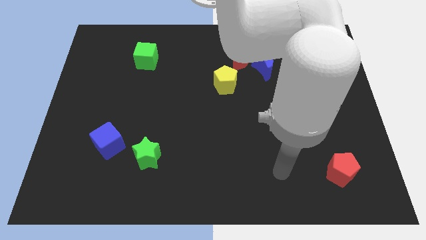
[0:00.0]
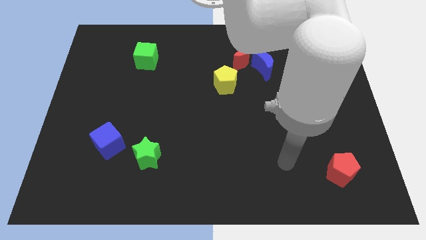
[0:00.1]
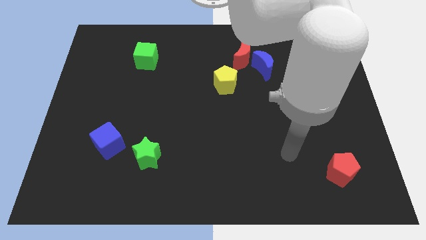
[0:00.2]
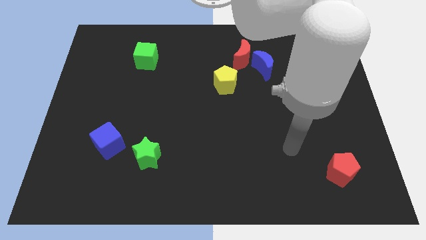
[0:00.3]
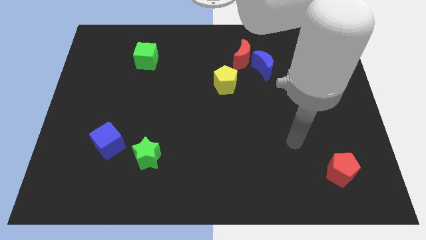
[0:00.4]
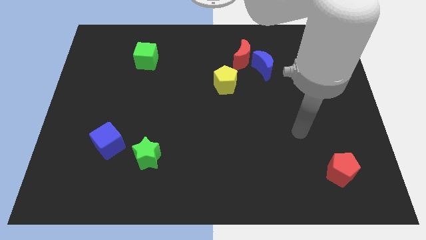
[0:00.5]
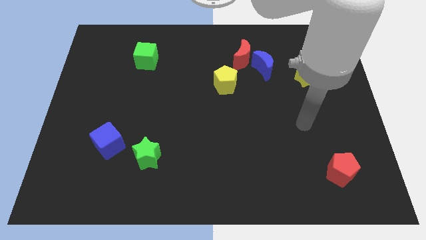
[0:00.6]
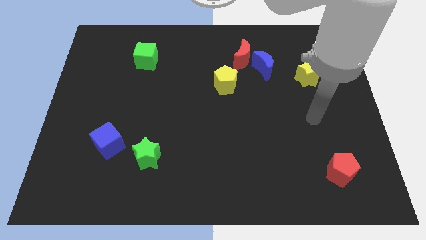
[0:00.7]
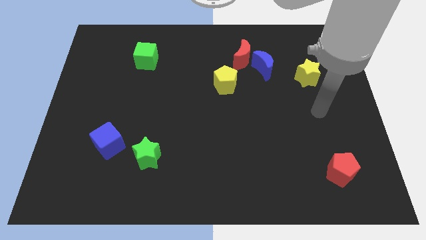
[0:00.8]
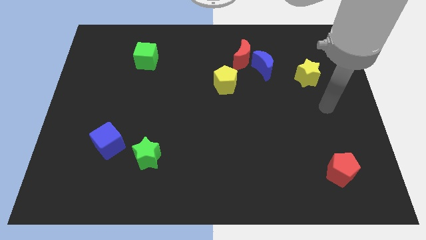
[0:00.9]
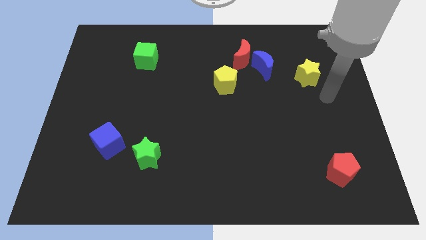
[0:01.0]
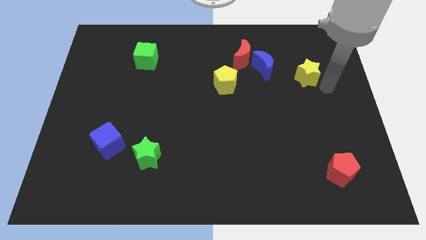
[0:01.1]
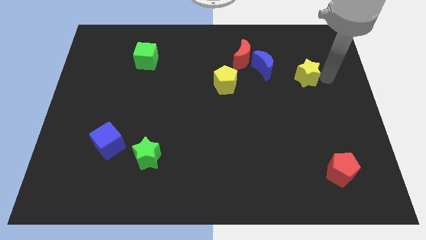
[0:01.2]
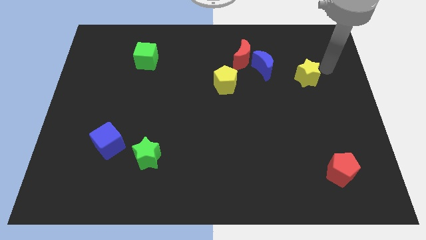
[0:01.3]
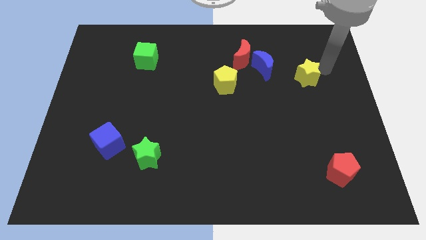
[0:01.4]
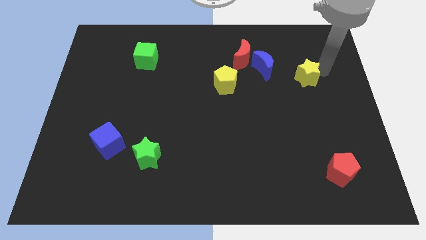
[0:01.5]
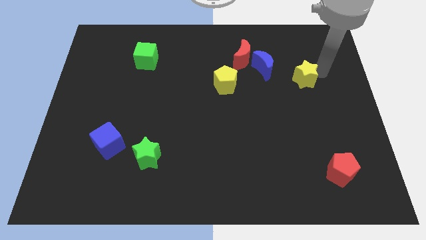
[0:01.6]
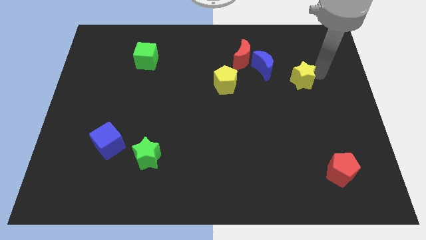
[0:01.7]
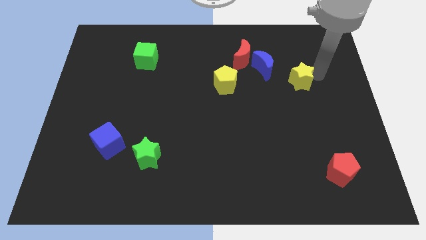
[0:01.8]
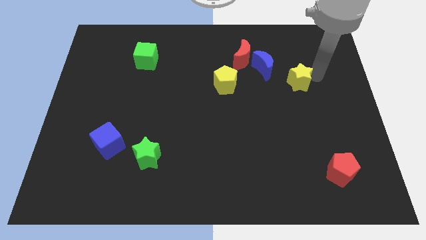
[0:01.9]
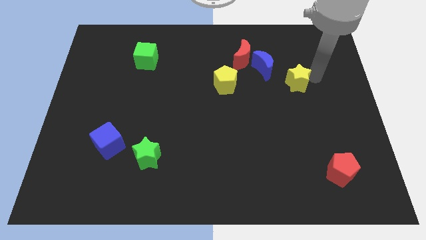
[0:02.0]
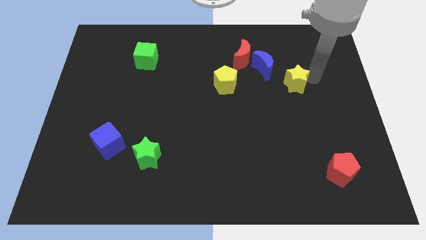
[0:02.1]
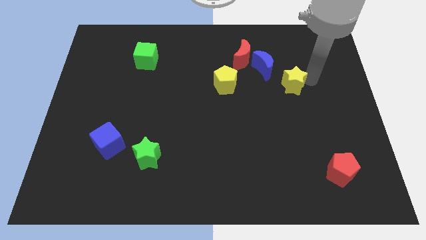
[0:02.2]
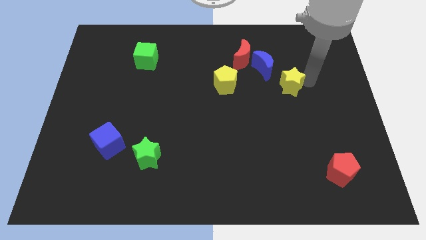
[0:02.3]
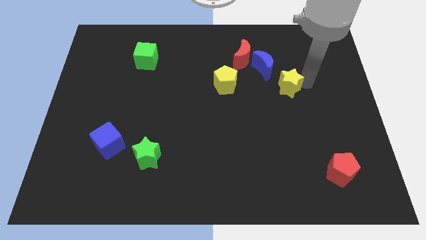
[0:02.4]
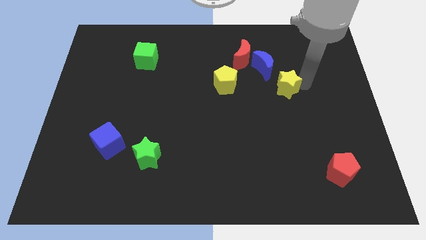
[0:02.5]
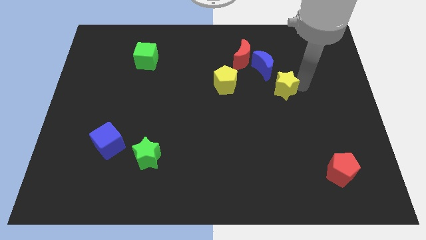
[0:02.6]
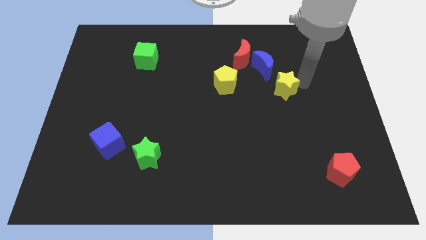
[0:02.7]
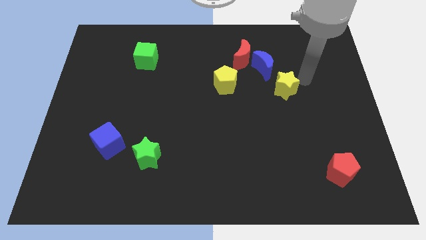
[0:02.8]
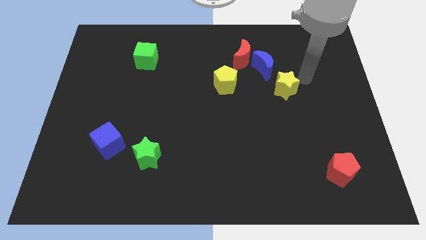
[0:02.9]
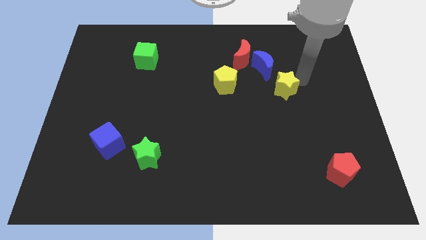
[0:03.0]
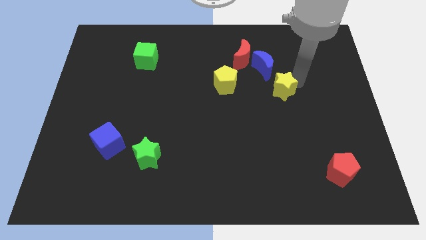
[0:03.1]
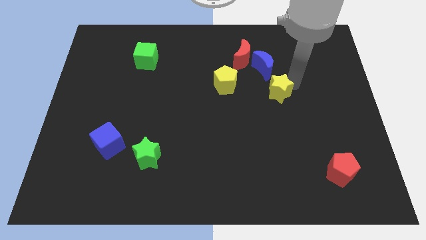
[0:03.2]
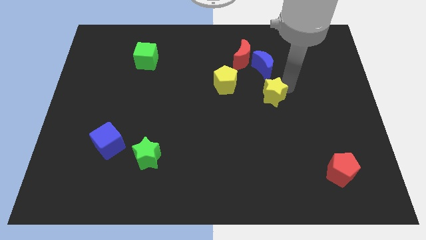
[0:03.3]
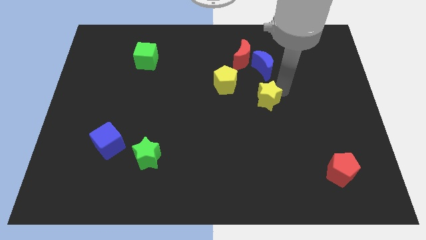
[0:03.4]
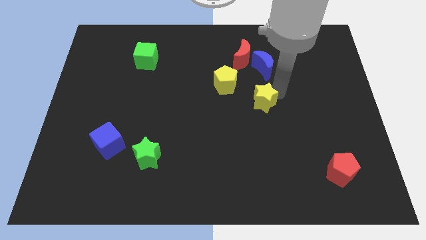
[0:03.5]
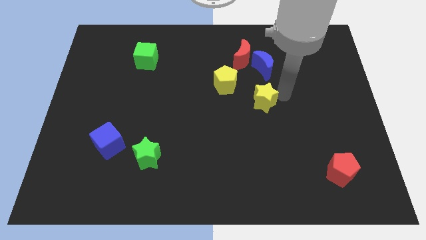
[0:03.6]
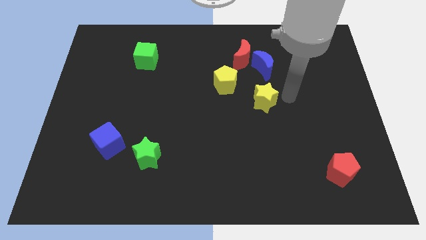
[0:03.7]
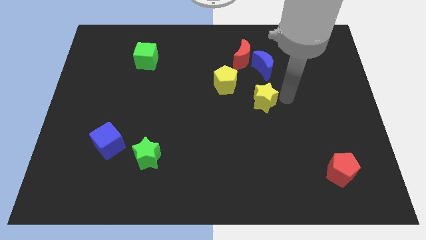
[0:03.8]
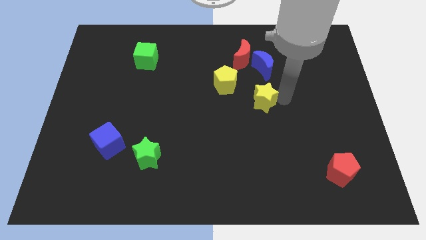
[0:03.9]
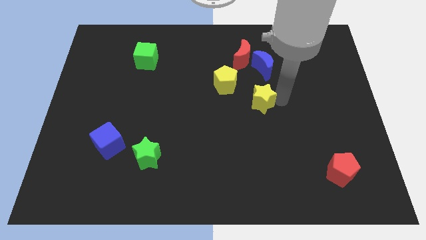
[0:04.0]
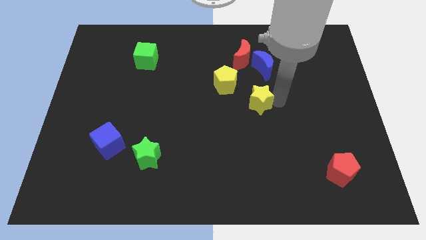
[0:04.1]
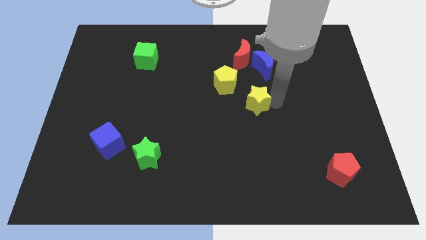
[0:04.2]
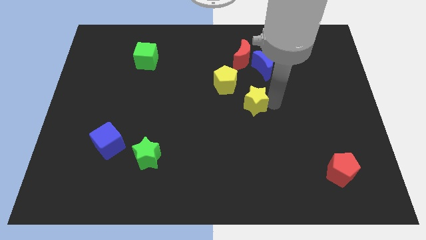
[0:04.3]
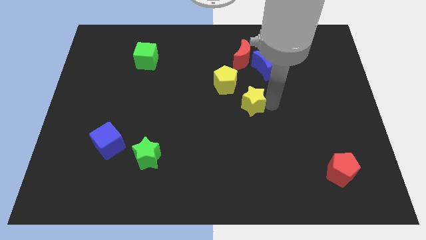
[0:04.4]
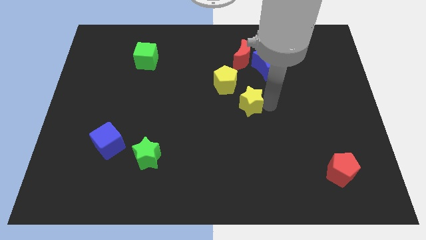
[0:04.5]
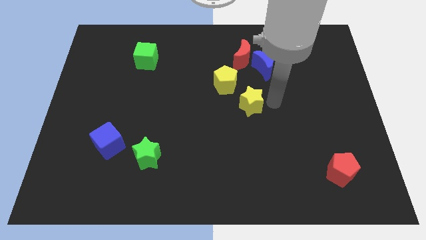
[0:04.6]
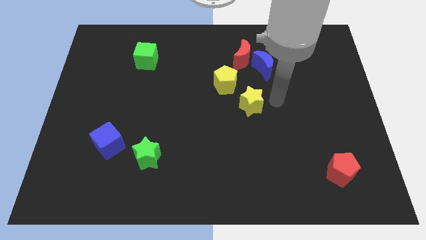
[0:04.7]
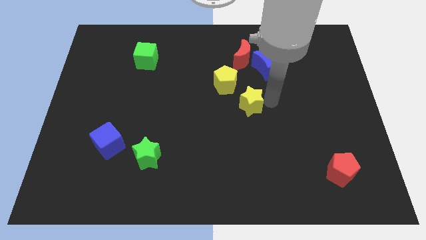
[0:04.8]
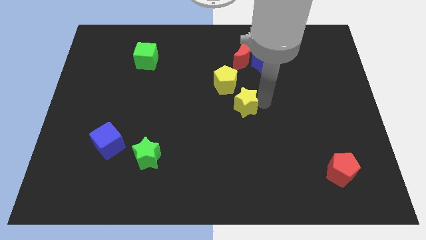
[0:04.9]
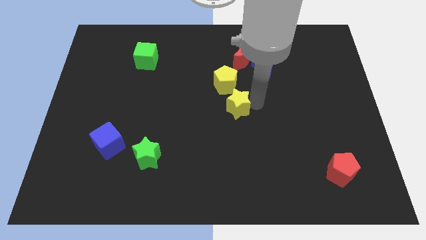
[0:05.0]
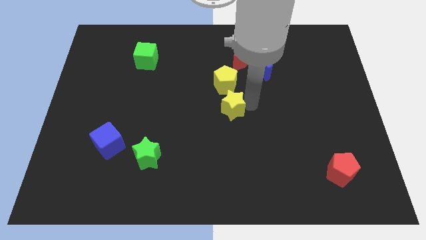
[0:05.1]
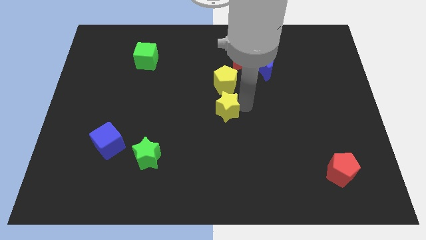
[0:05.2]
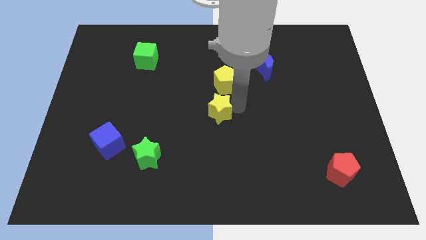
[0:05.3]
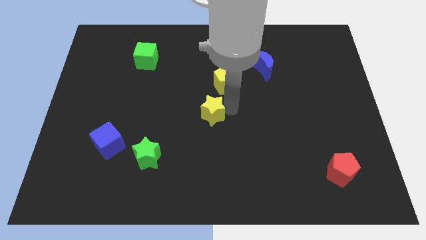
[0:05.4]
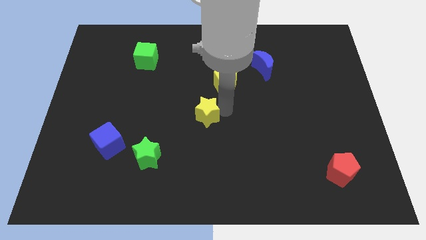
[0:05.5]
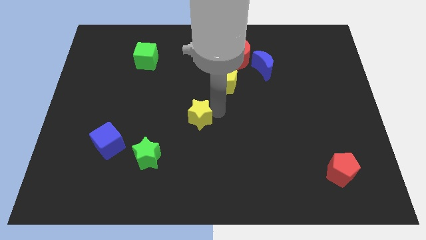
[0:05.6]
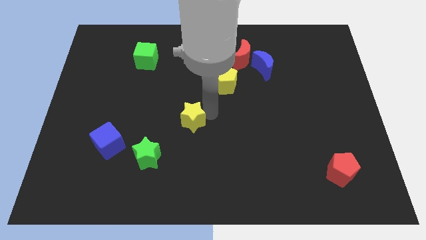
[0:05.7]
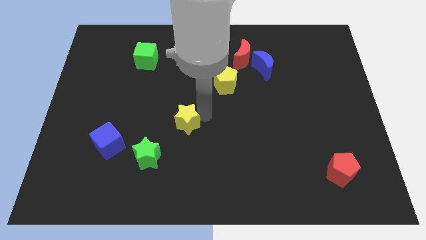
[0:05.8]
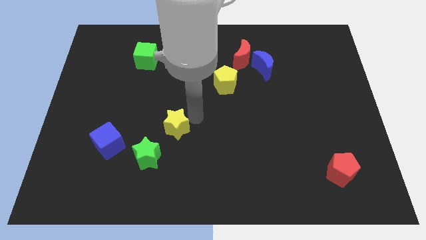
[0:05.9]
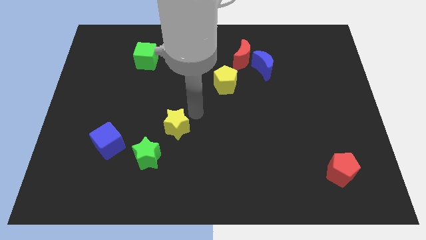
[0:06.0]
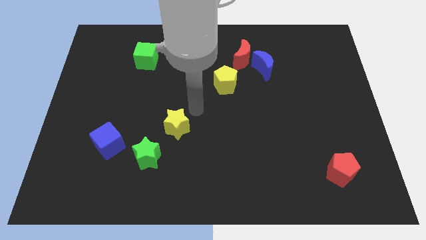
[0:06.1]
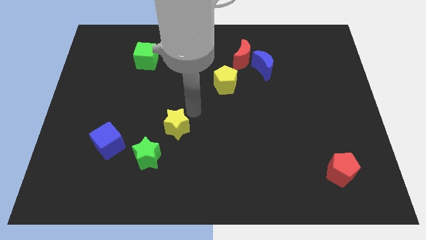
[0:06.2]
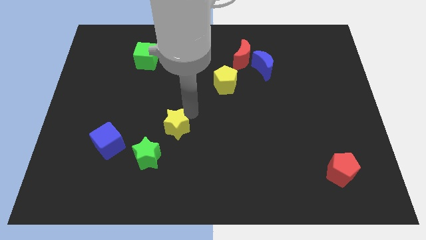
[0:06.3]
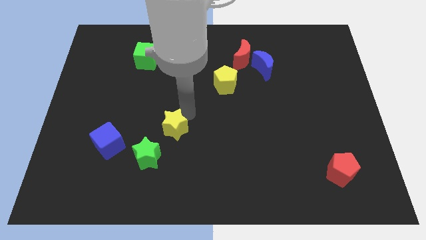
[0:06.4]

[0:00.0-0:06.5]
put the yellow star just right of the blue cube
